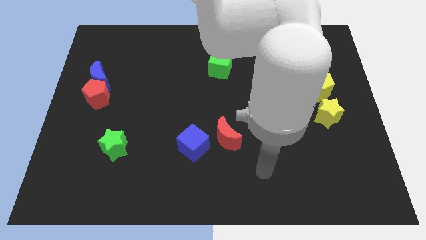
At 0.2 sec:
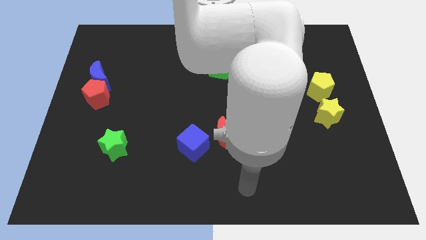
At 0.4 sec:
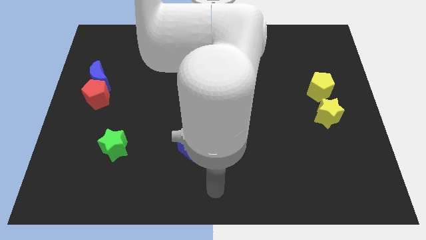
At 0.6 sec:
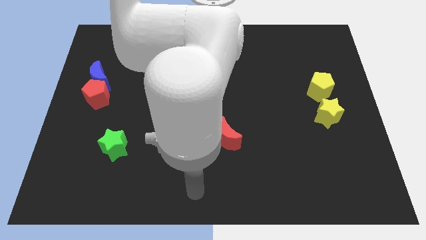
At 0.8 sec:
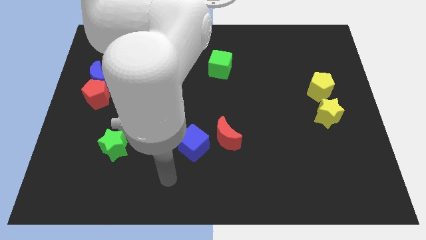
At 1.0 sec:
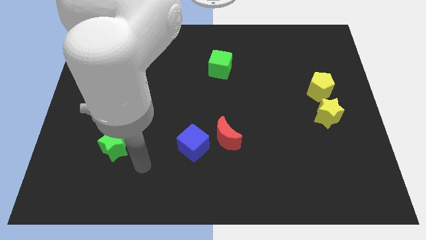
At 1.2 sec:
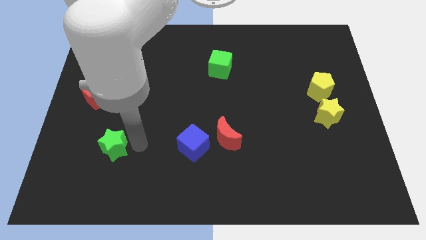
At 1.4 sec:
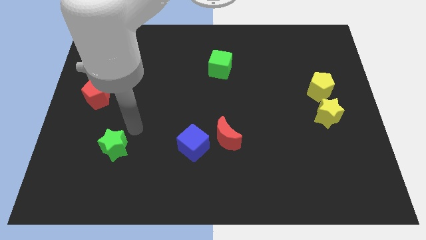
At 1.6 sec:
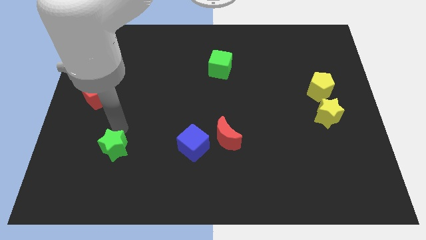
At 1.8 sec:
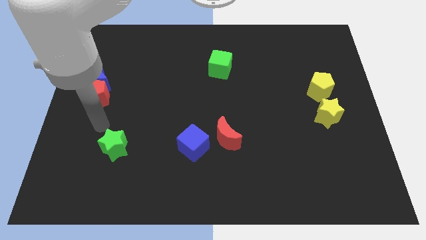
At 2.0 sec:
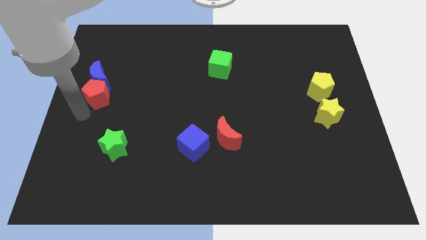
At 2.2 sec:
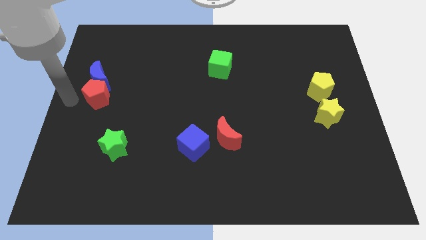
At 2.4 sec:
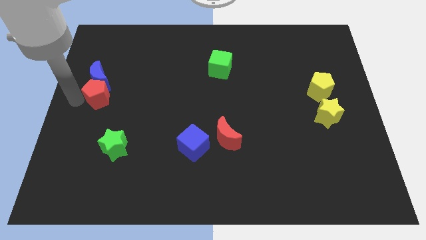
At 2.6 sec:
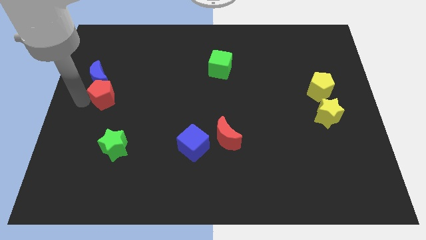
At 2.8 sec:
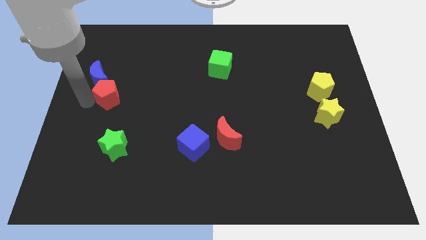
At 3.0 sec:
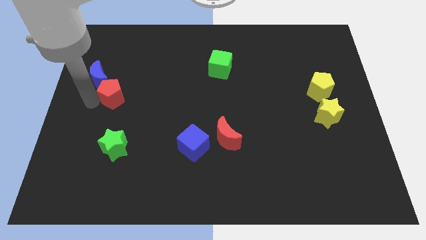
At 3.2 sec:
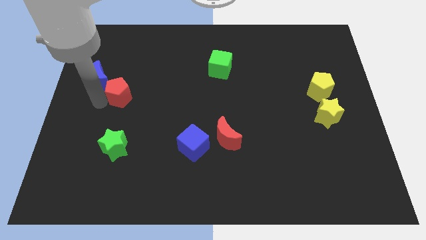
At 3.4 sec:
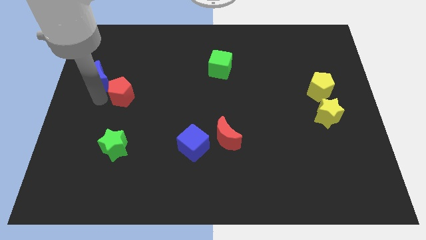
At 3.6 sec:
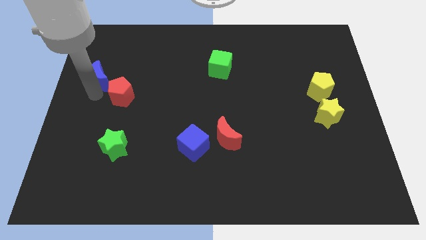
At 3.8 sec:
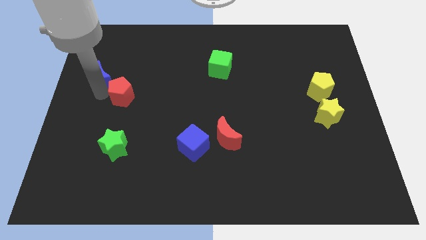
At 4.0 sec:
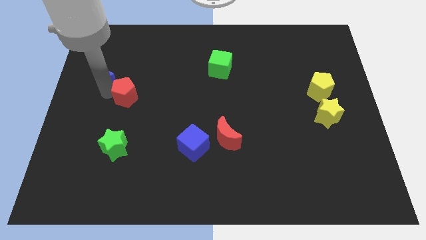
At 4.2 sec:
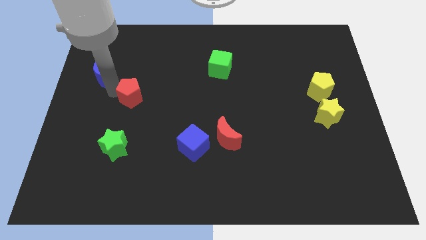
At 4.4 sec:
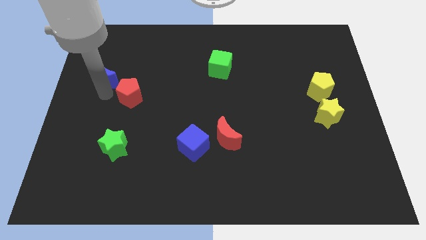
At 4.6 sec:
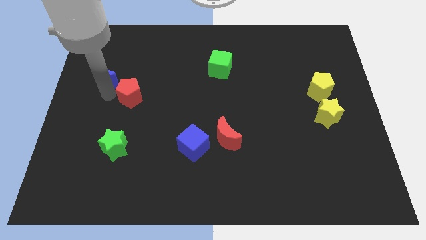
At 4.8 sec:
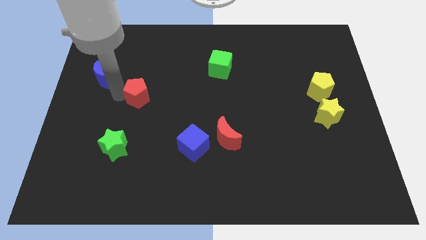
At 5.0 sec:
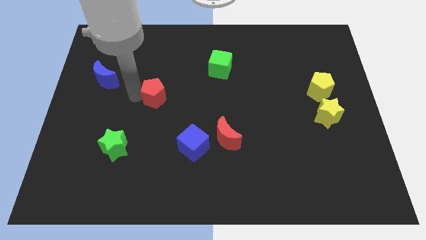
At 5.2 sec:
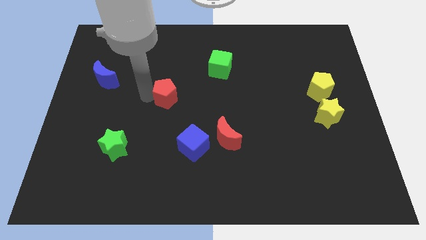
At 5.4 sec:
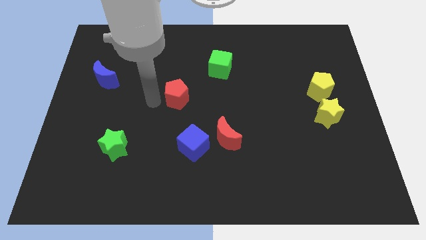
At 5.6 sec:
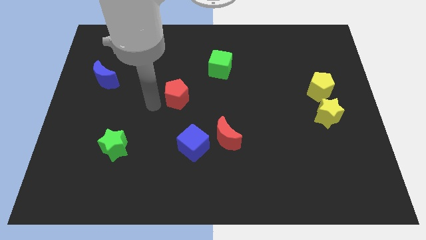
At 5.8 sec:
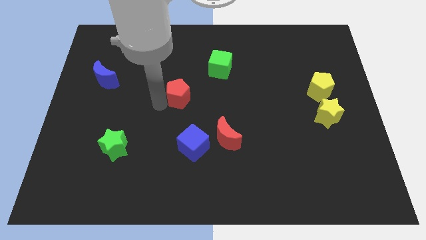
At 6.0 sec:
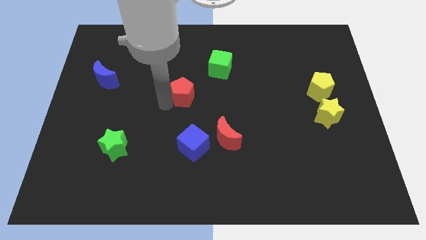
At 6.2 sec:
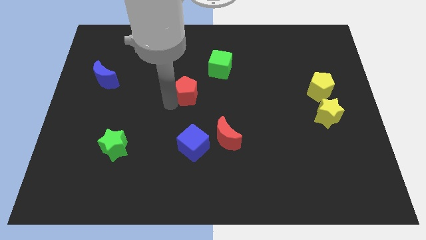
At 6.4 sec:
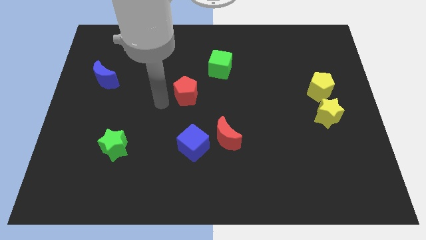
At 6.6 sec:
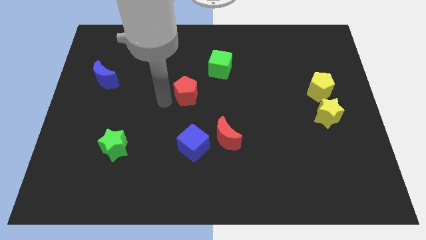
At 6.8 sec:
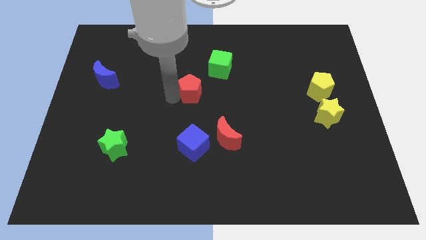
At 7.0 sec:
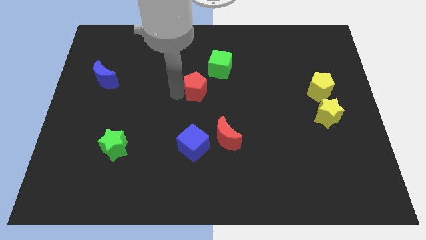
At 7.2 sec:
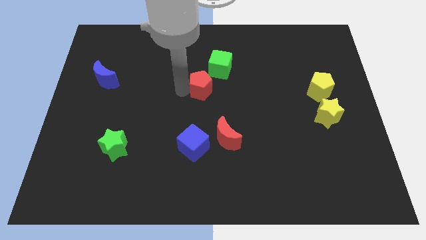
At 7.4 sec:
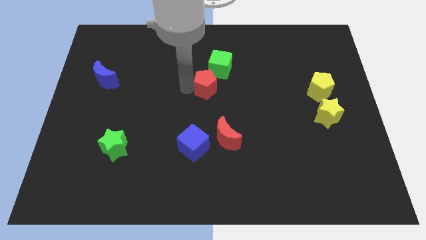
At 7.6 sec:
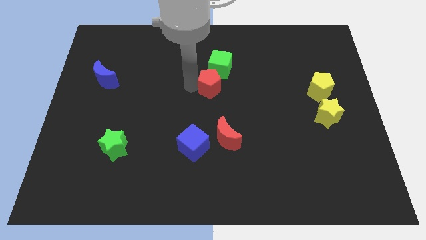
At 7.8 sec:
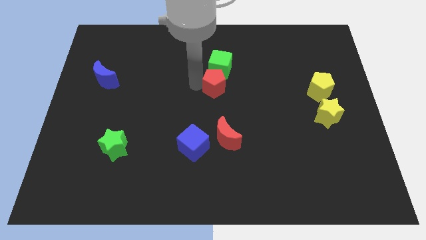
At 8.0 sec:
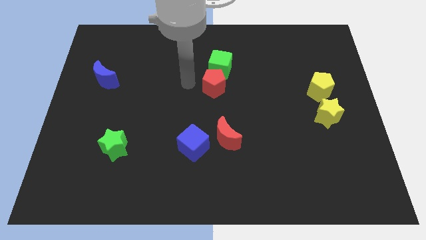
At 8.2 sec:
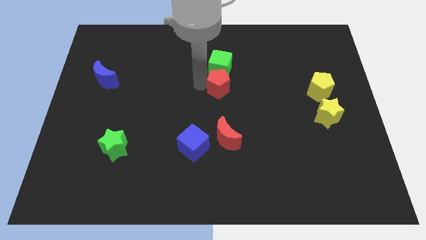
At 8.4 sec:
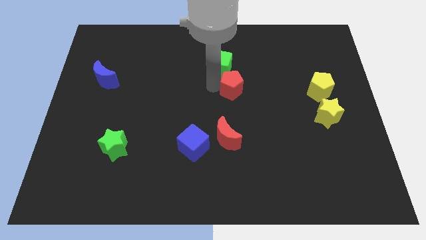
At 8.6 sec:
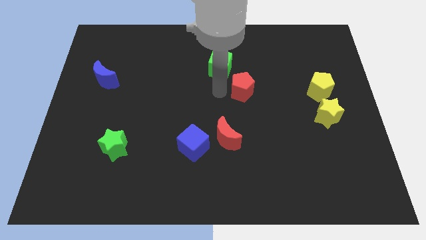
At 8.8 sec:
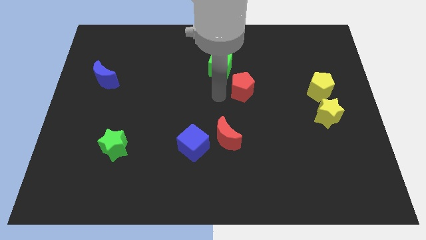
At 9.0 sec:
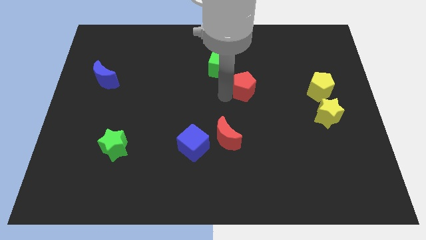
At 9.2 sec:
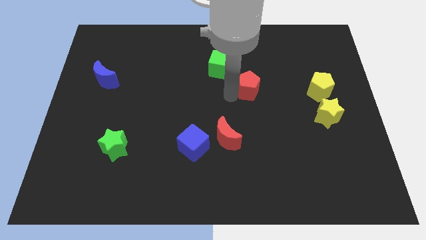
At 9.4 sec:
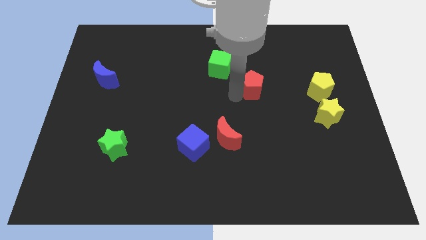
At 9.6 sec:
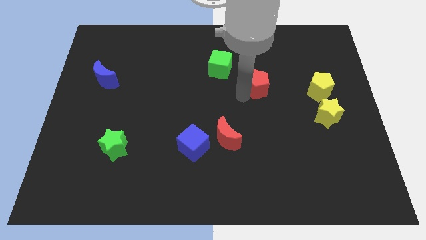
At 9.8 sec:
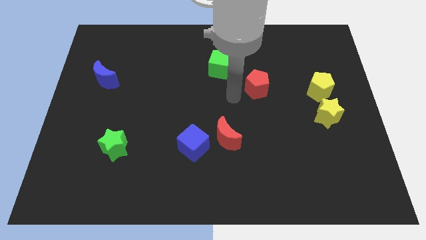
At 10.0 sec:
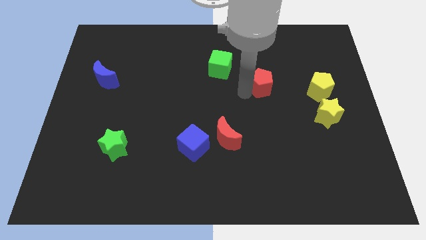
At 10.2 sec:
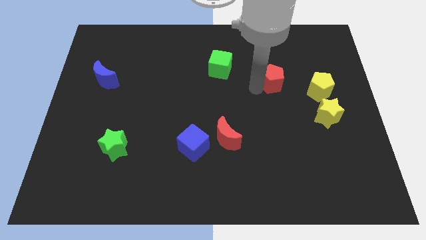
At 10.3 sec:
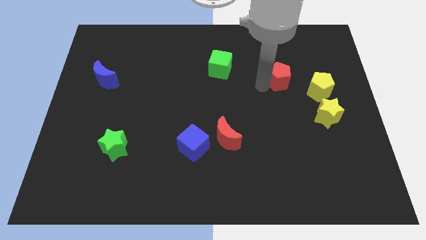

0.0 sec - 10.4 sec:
move the red pentagon diagonally up and to the left of the yellow pentagon

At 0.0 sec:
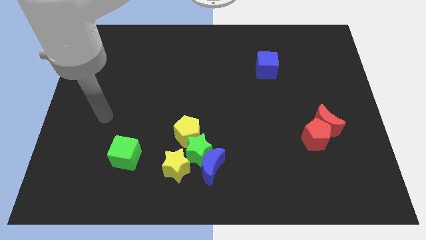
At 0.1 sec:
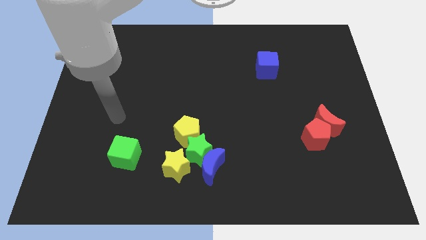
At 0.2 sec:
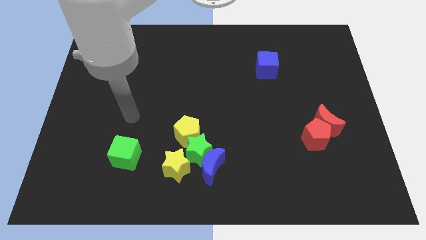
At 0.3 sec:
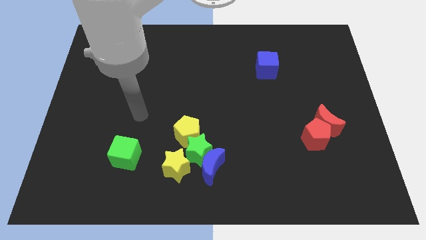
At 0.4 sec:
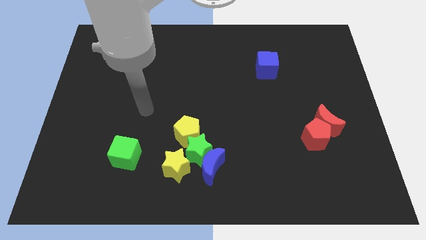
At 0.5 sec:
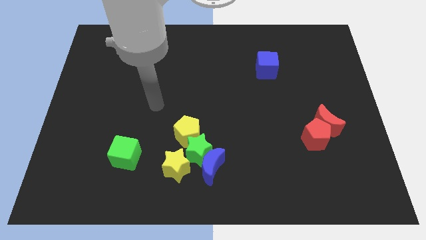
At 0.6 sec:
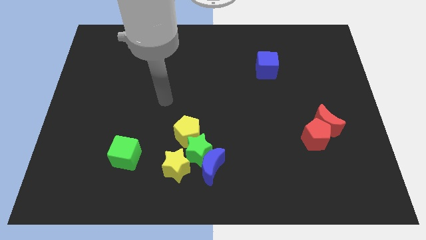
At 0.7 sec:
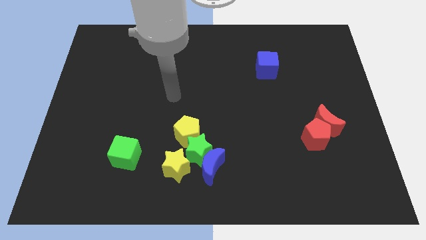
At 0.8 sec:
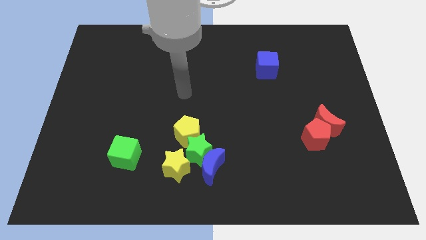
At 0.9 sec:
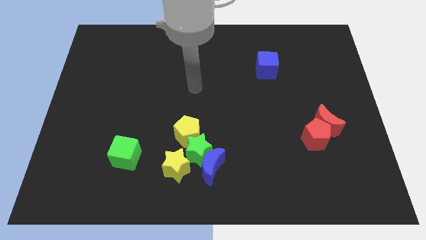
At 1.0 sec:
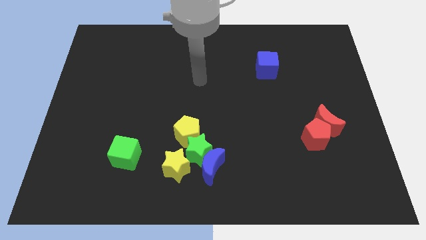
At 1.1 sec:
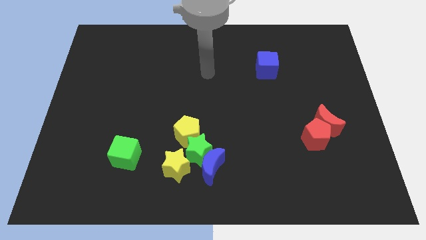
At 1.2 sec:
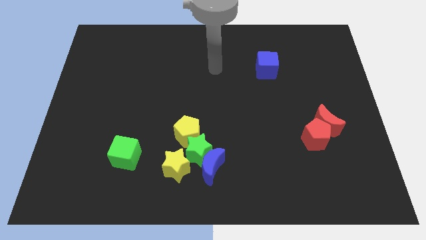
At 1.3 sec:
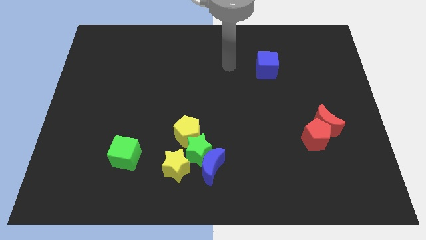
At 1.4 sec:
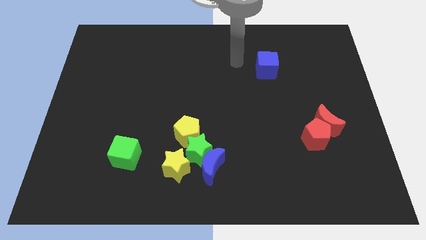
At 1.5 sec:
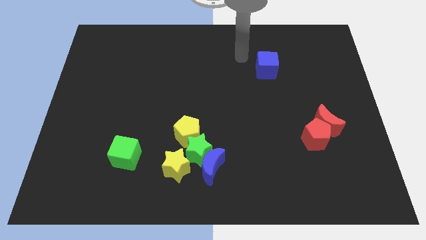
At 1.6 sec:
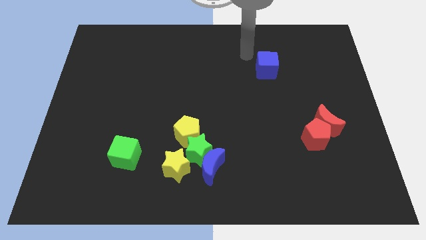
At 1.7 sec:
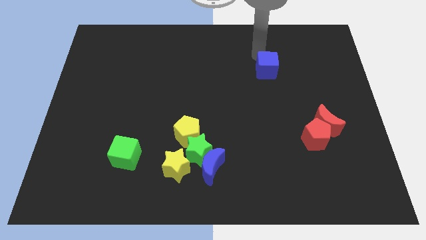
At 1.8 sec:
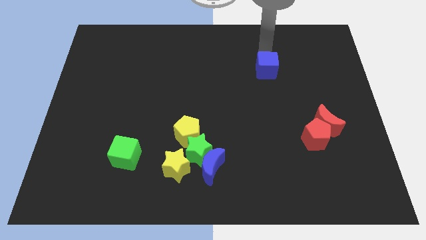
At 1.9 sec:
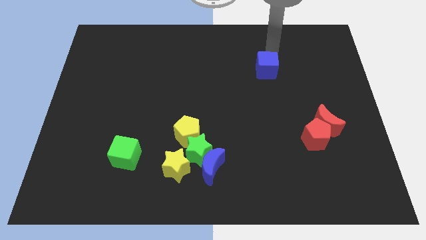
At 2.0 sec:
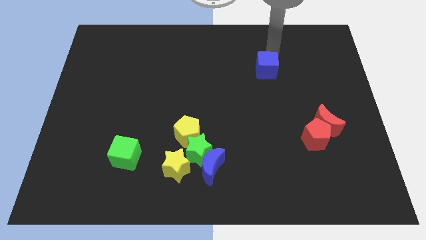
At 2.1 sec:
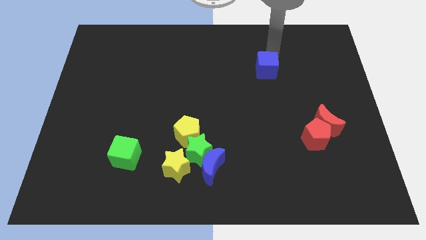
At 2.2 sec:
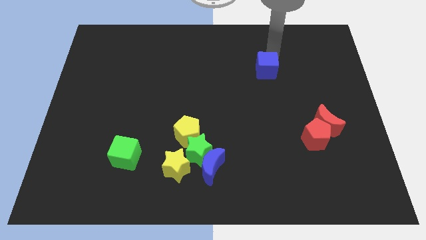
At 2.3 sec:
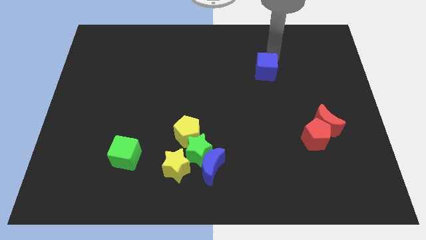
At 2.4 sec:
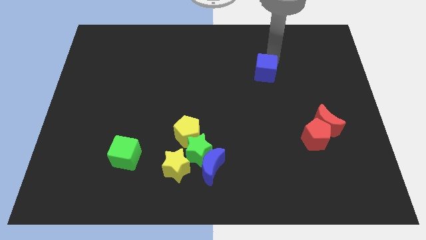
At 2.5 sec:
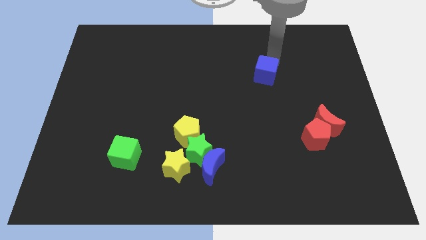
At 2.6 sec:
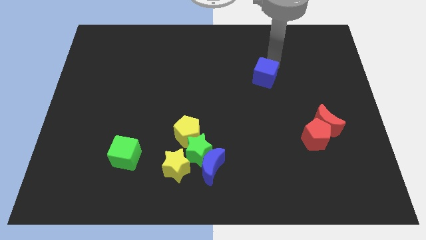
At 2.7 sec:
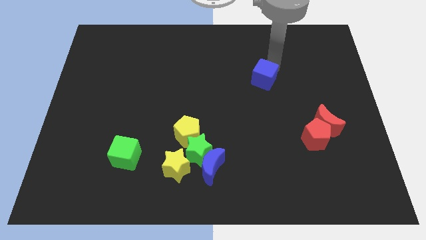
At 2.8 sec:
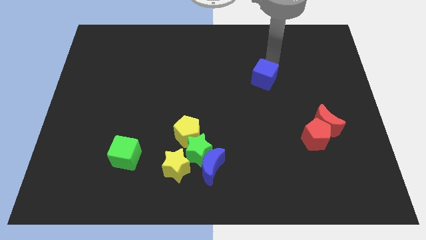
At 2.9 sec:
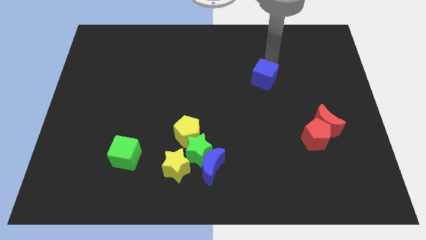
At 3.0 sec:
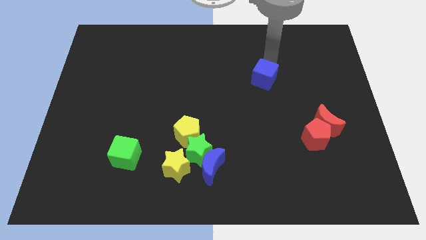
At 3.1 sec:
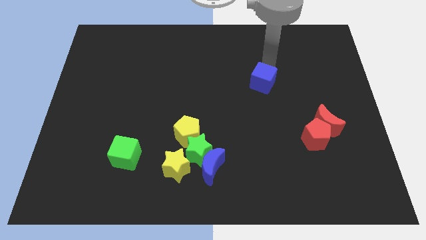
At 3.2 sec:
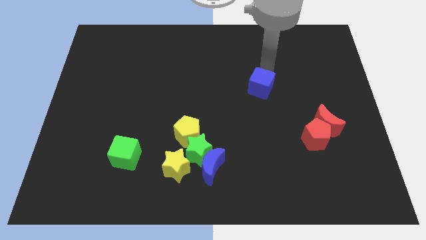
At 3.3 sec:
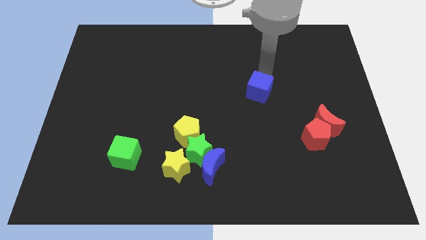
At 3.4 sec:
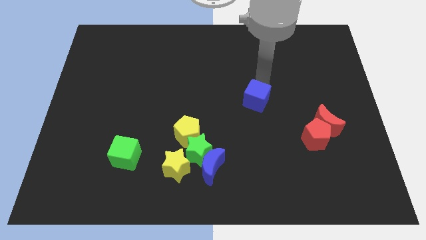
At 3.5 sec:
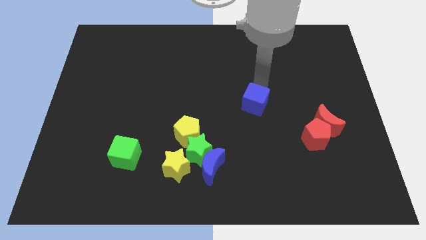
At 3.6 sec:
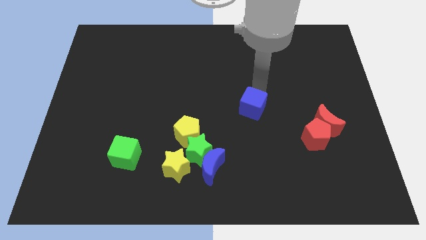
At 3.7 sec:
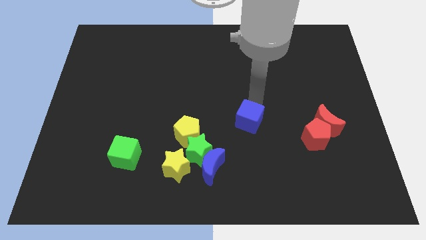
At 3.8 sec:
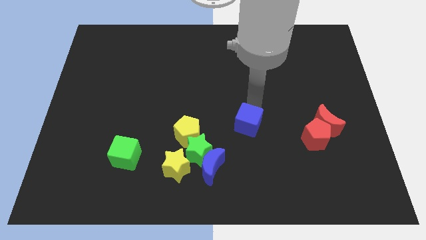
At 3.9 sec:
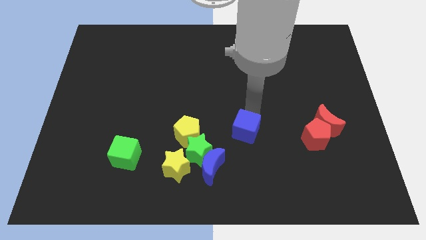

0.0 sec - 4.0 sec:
move the blue cube to the top right side of the blue moon
